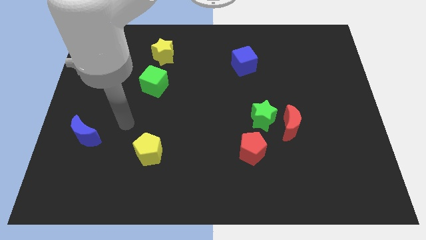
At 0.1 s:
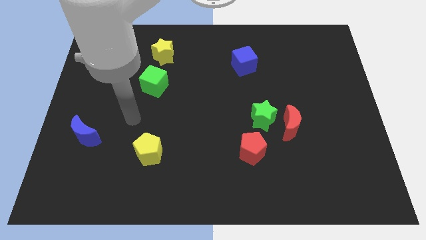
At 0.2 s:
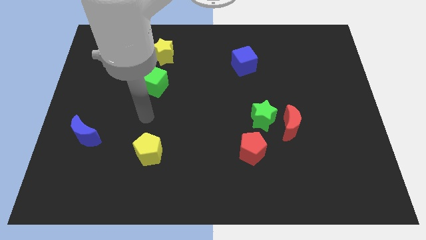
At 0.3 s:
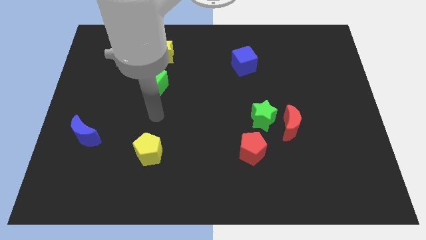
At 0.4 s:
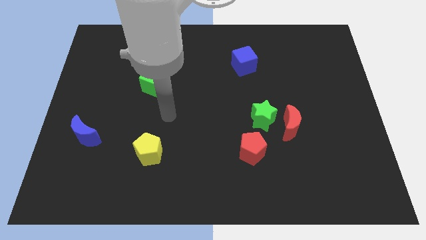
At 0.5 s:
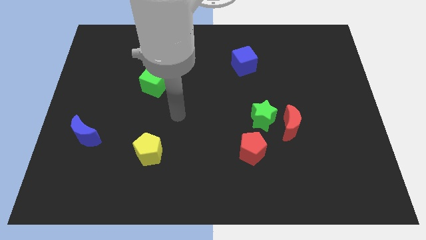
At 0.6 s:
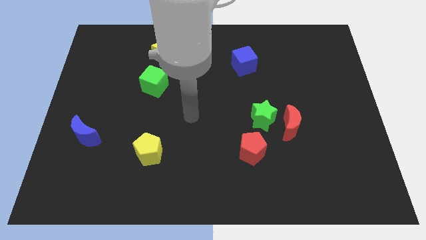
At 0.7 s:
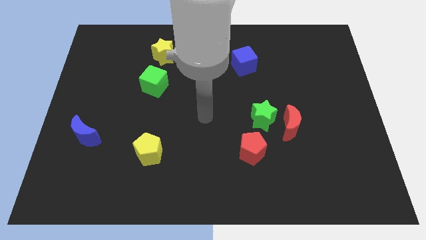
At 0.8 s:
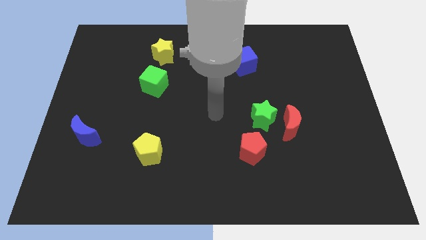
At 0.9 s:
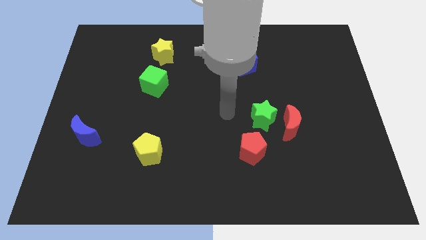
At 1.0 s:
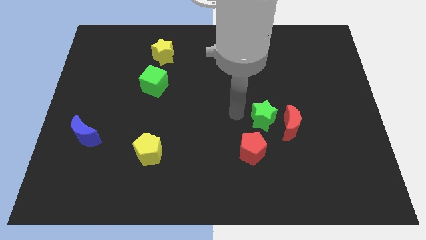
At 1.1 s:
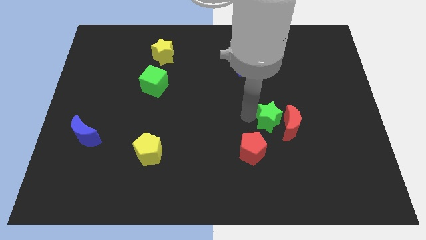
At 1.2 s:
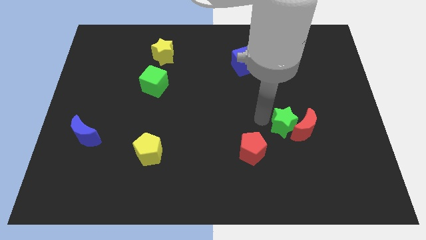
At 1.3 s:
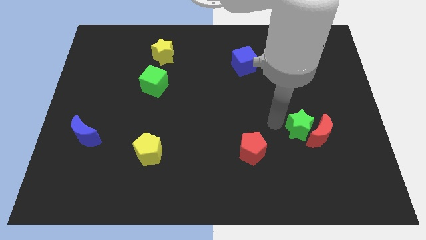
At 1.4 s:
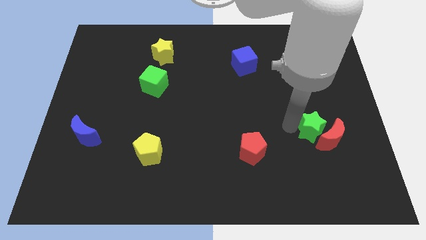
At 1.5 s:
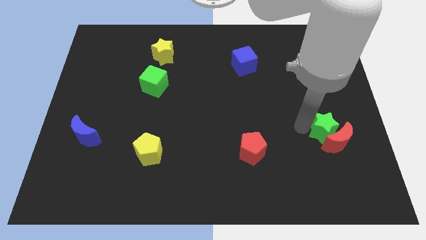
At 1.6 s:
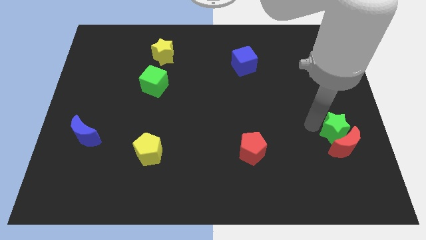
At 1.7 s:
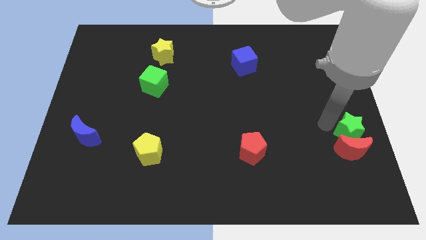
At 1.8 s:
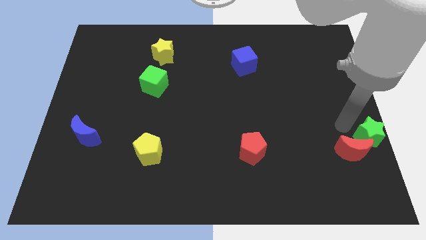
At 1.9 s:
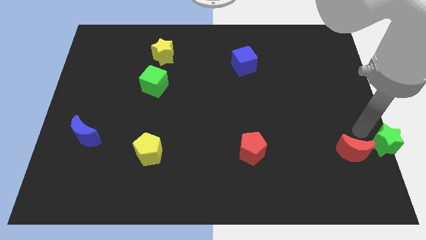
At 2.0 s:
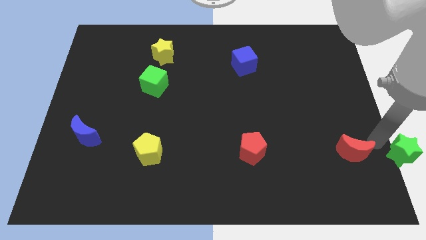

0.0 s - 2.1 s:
pull the red moon apart from the green star

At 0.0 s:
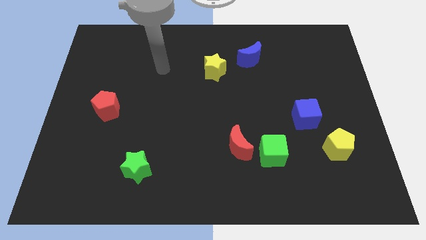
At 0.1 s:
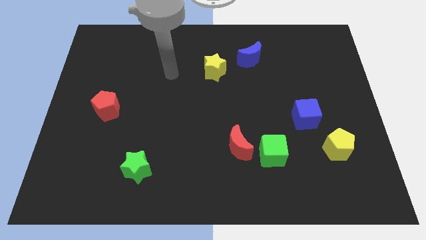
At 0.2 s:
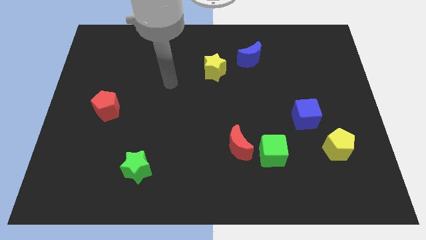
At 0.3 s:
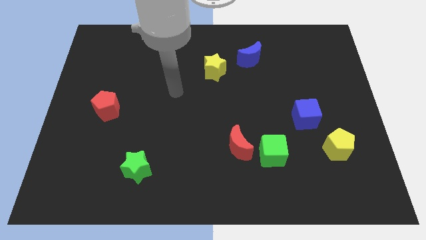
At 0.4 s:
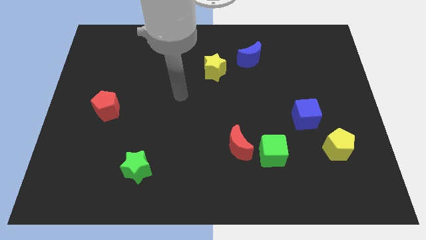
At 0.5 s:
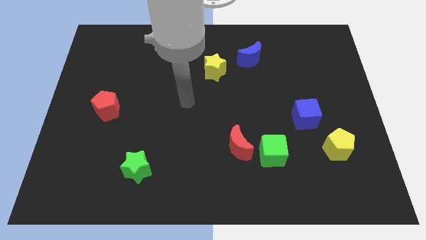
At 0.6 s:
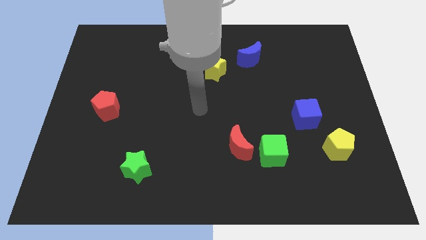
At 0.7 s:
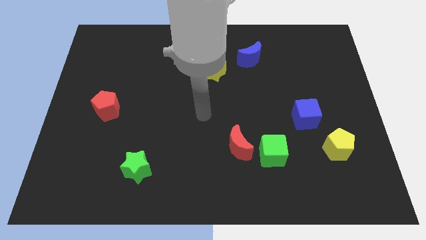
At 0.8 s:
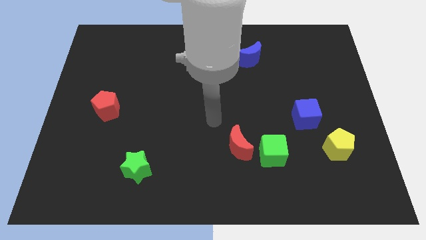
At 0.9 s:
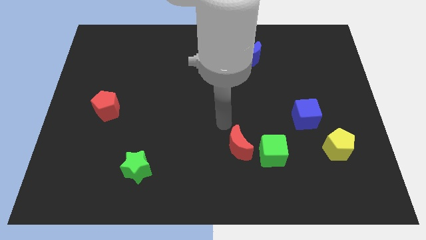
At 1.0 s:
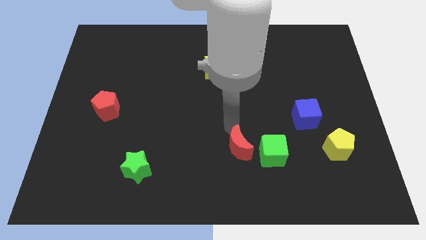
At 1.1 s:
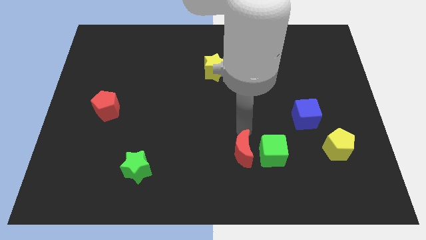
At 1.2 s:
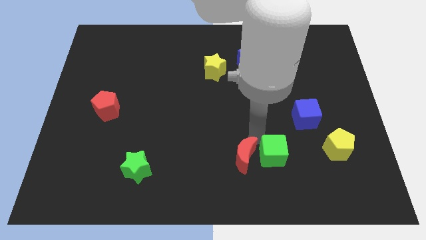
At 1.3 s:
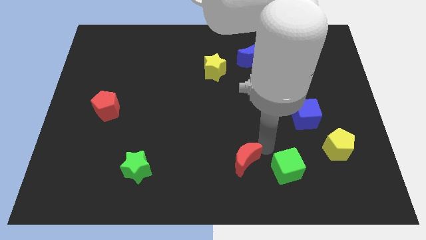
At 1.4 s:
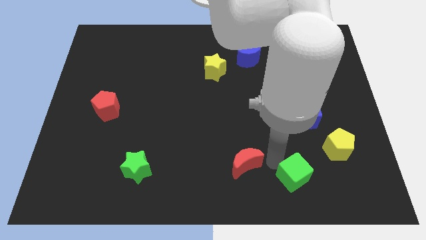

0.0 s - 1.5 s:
separate the red moon from the green cube

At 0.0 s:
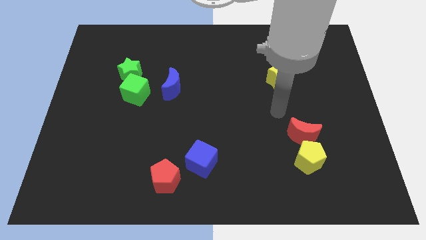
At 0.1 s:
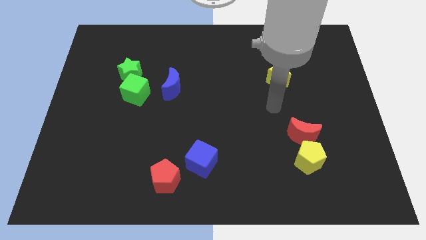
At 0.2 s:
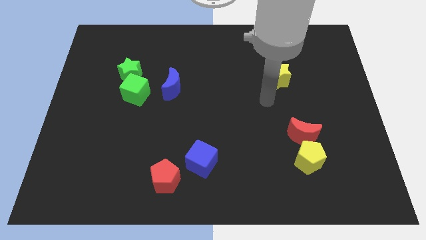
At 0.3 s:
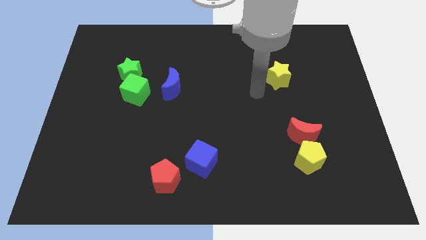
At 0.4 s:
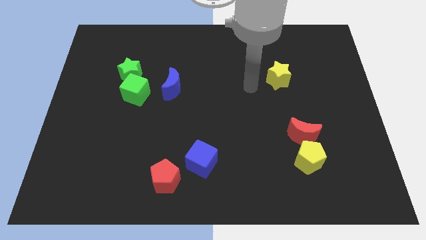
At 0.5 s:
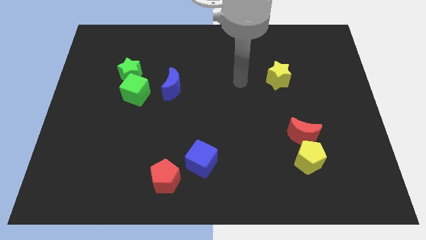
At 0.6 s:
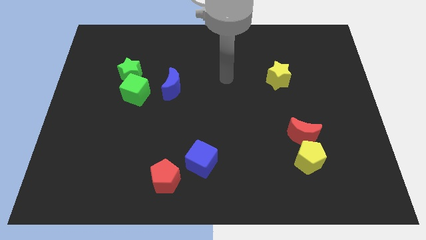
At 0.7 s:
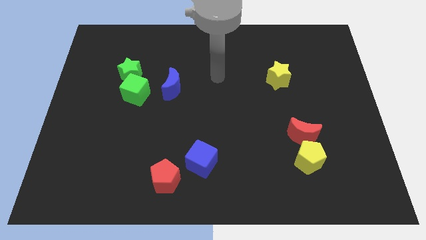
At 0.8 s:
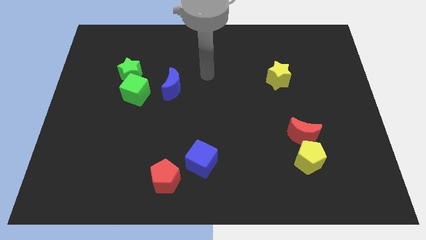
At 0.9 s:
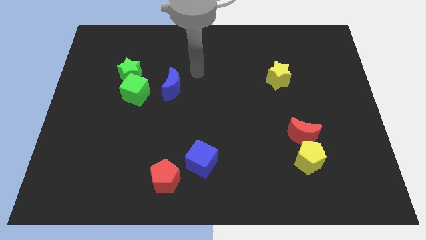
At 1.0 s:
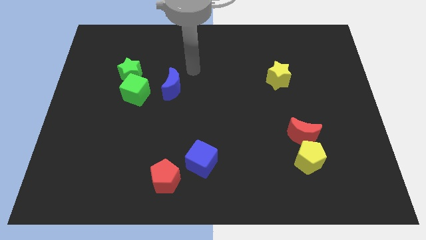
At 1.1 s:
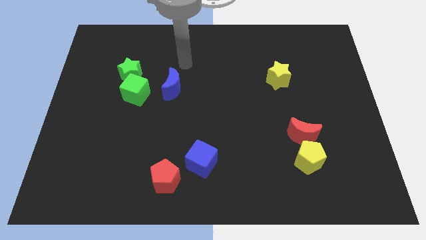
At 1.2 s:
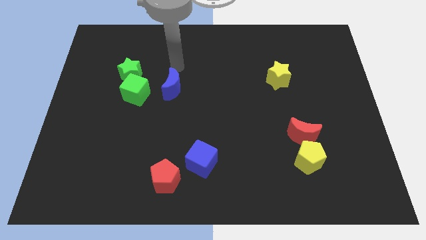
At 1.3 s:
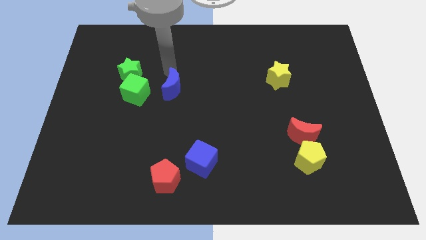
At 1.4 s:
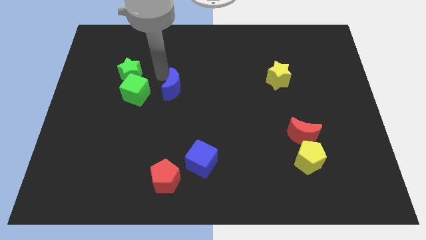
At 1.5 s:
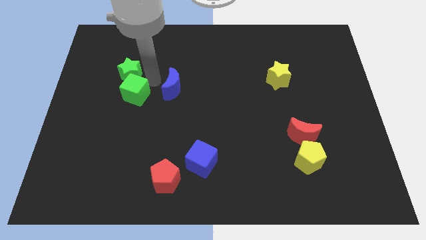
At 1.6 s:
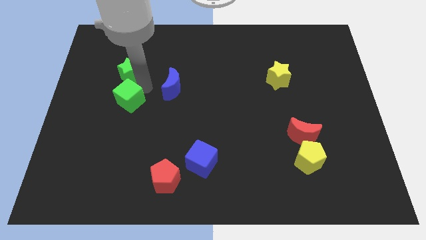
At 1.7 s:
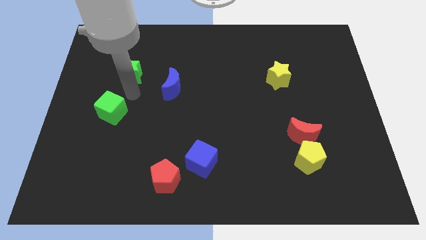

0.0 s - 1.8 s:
move the green star away from the green cube

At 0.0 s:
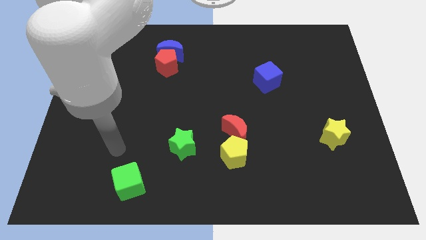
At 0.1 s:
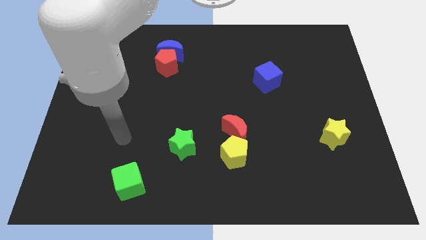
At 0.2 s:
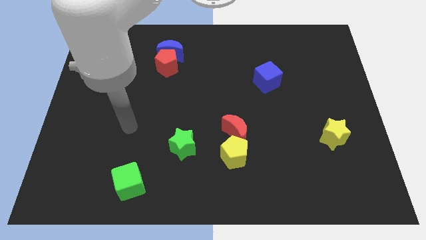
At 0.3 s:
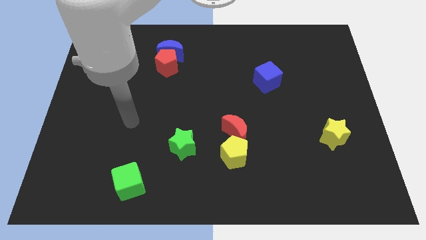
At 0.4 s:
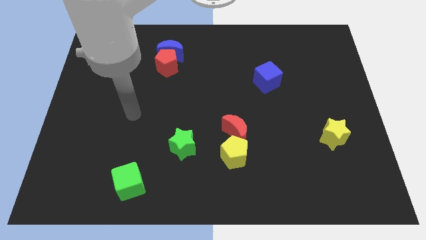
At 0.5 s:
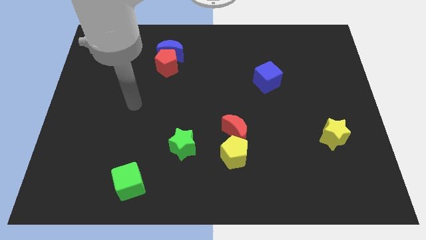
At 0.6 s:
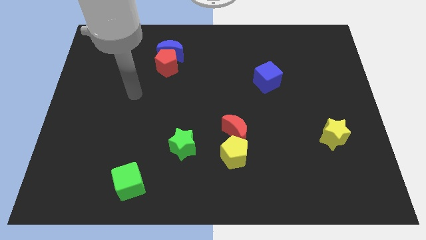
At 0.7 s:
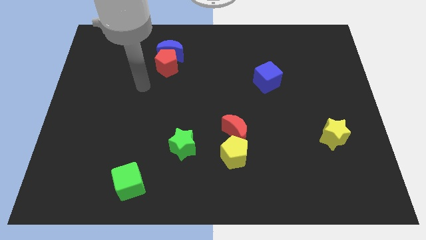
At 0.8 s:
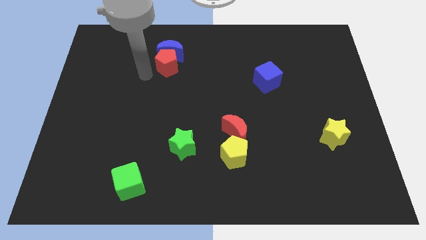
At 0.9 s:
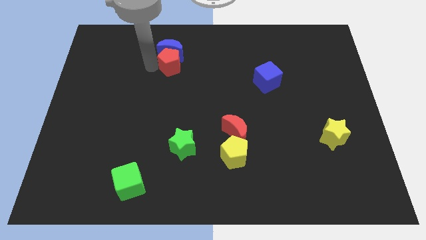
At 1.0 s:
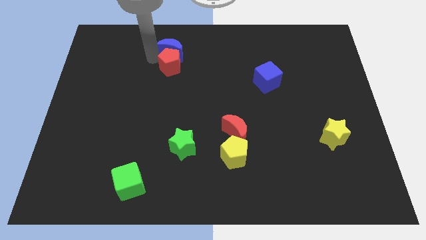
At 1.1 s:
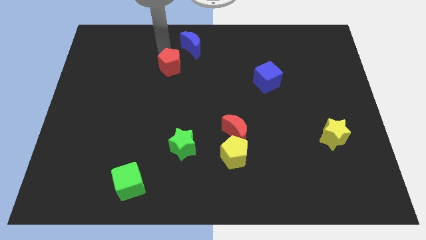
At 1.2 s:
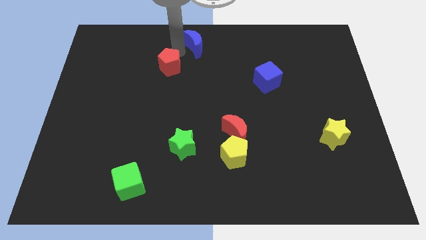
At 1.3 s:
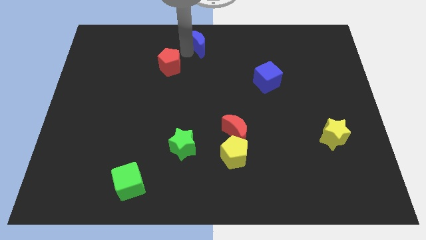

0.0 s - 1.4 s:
separate the red pentagon from the blue moon

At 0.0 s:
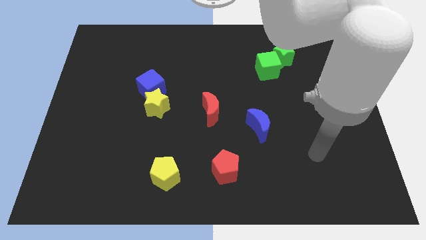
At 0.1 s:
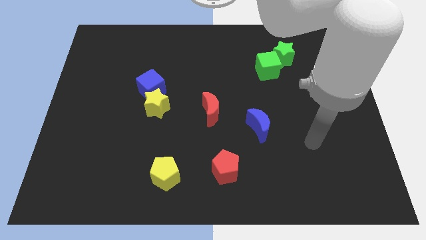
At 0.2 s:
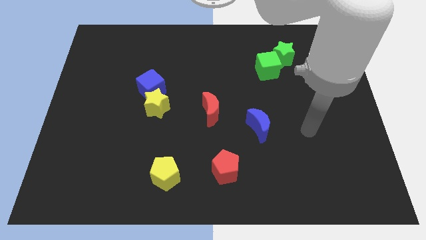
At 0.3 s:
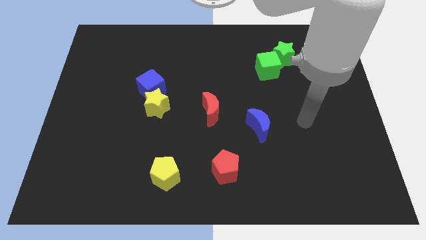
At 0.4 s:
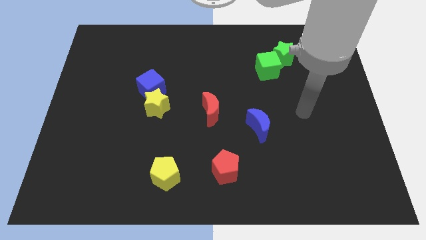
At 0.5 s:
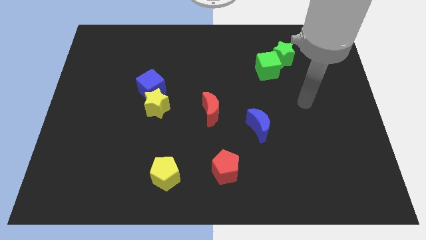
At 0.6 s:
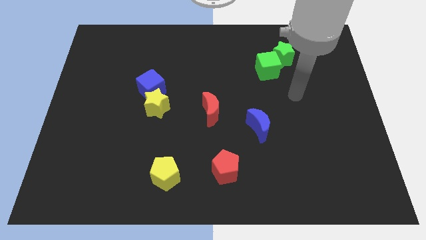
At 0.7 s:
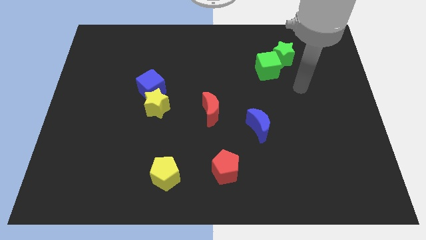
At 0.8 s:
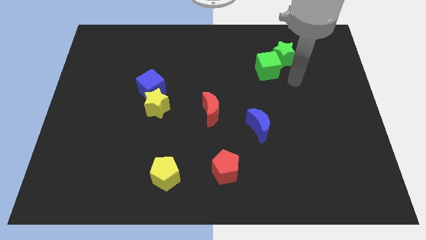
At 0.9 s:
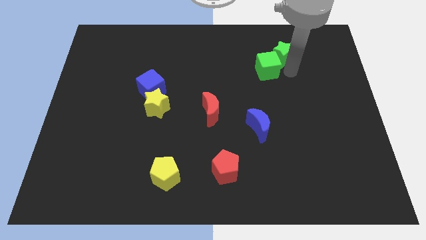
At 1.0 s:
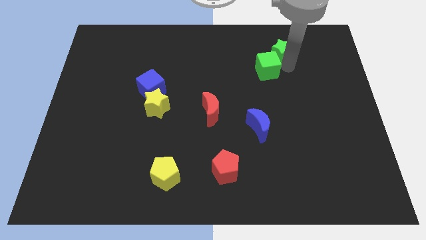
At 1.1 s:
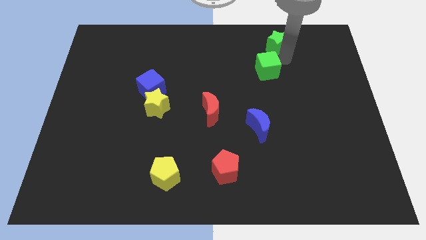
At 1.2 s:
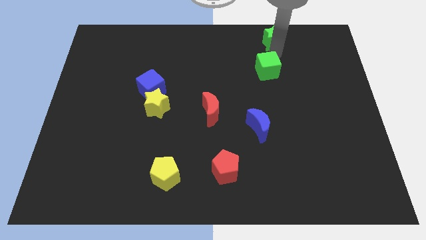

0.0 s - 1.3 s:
separate the green cube from the green star

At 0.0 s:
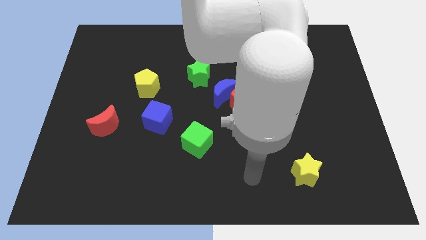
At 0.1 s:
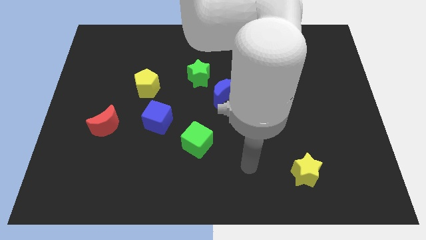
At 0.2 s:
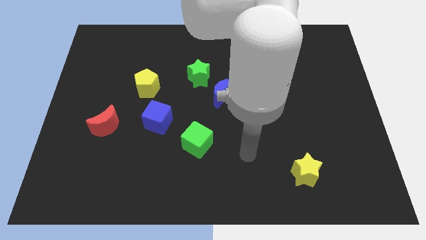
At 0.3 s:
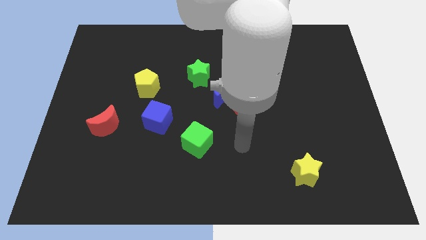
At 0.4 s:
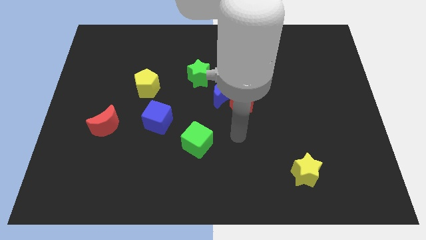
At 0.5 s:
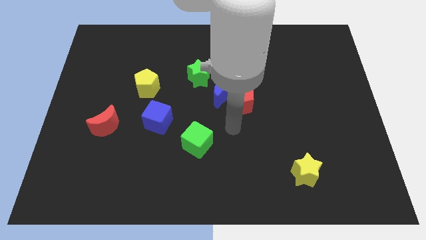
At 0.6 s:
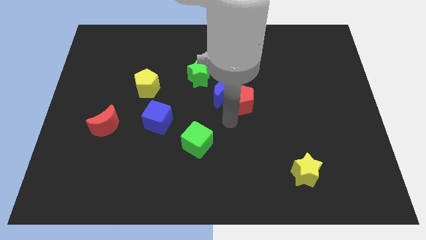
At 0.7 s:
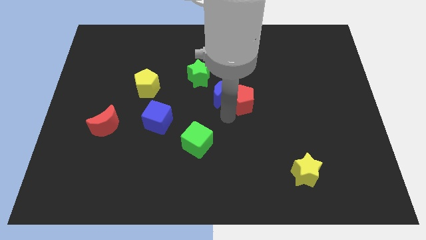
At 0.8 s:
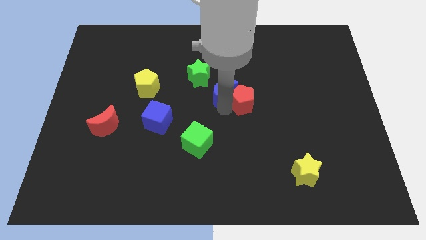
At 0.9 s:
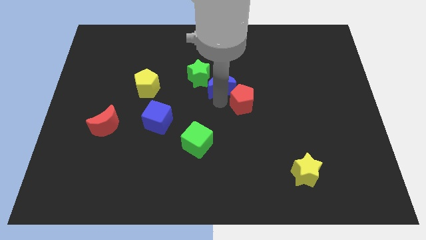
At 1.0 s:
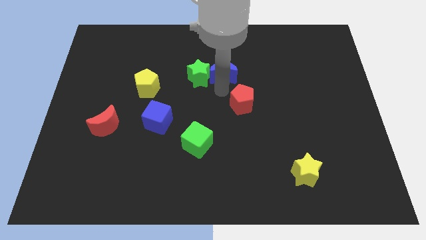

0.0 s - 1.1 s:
move the red pentagon away from the blue moon
